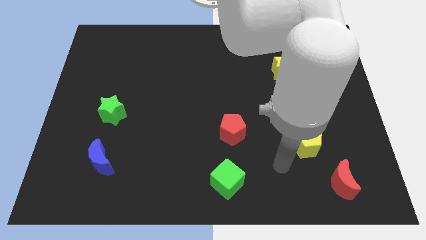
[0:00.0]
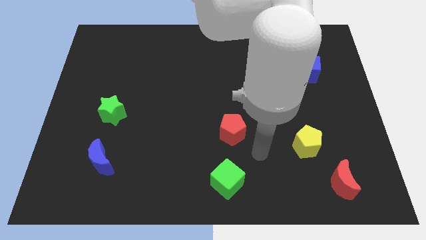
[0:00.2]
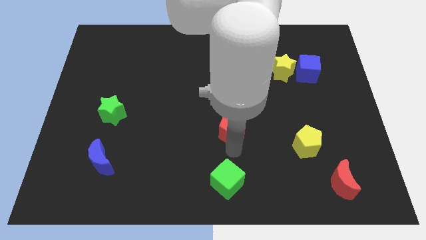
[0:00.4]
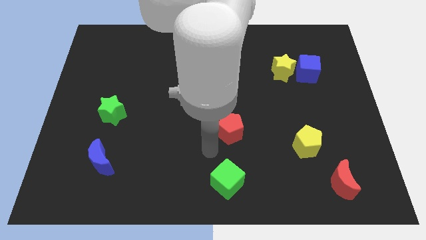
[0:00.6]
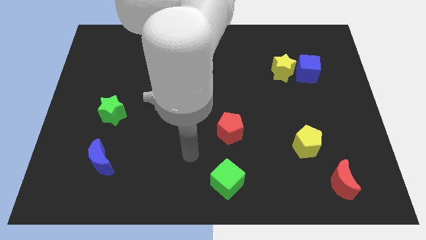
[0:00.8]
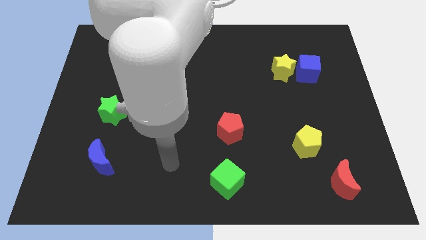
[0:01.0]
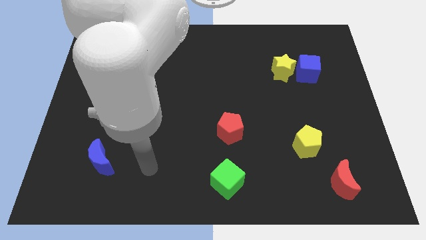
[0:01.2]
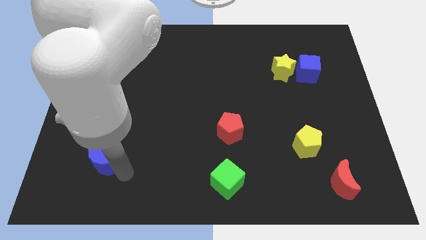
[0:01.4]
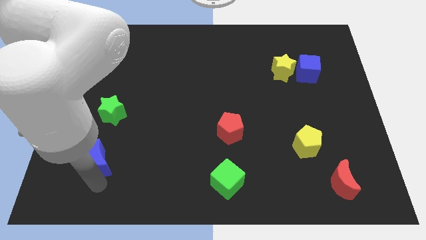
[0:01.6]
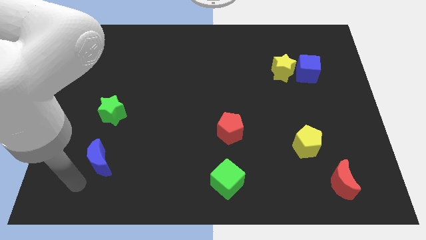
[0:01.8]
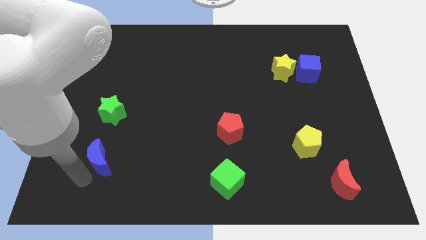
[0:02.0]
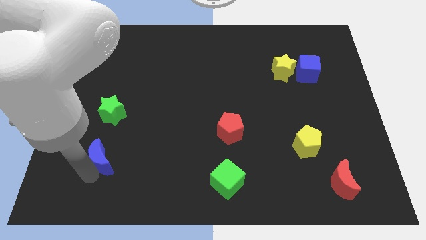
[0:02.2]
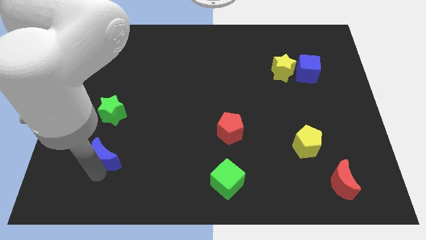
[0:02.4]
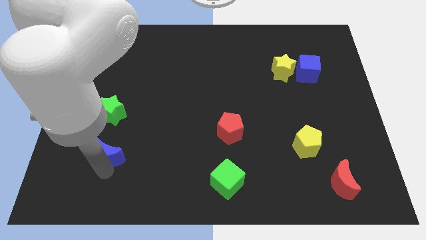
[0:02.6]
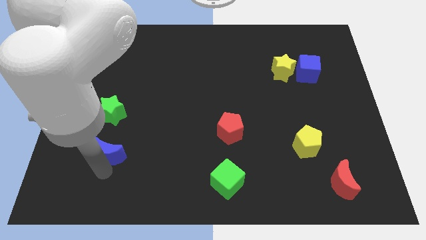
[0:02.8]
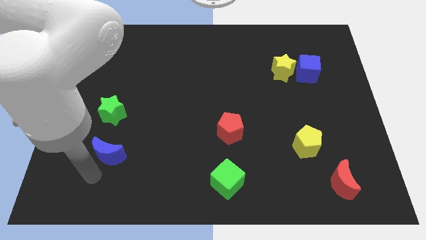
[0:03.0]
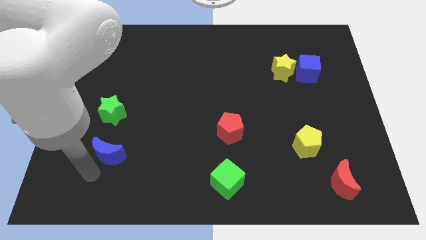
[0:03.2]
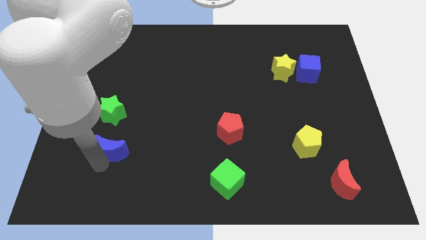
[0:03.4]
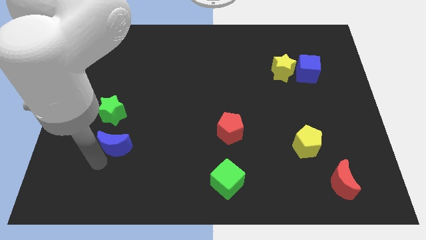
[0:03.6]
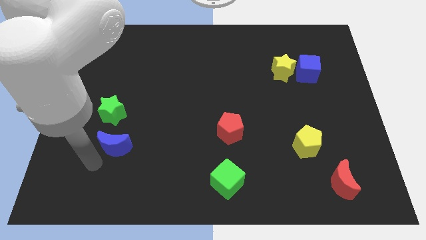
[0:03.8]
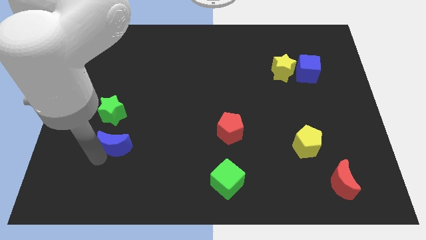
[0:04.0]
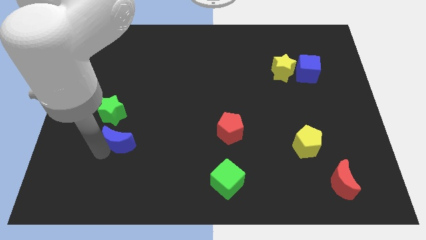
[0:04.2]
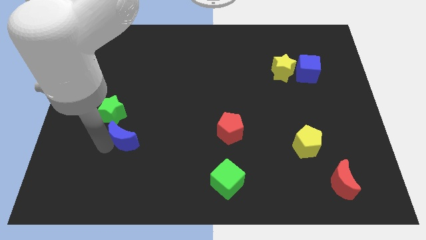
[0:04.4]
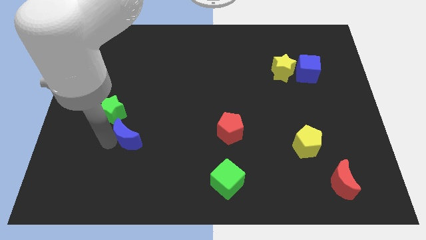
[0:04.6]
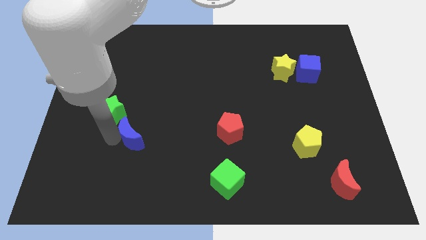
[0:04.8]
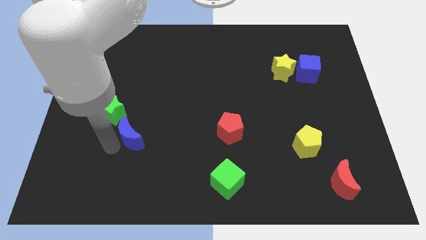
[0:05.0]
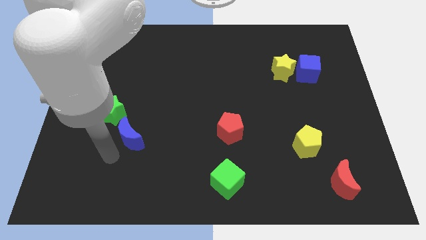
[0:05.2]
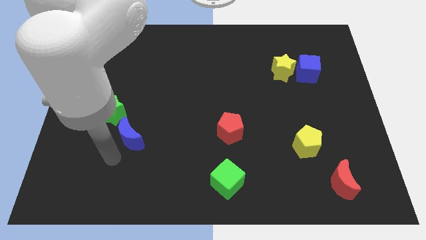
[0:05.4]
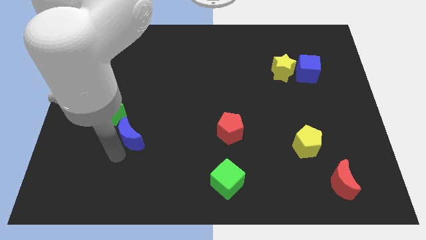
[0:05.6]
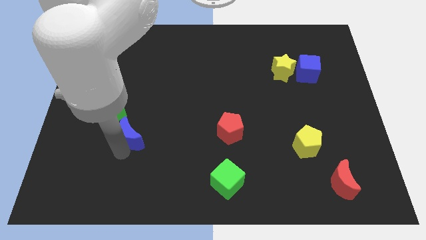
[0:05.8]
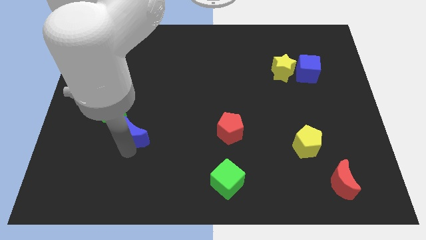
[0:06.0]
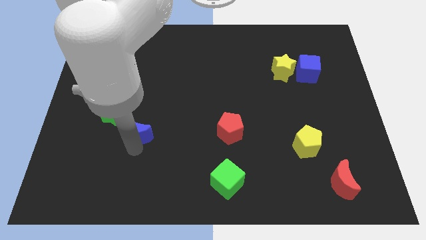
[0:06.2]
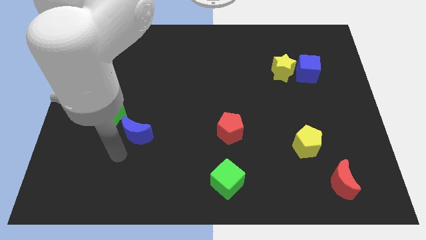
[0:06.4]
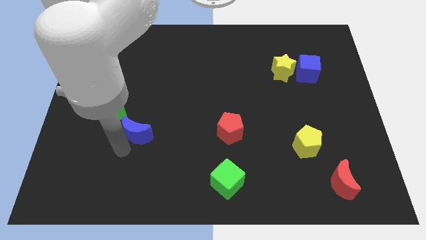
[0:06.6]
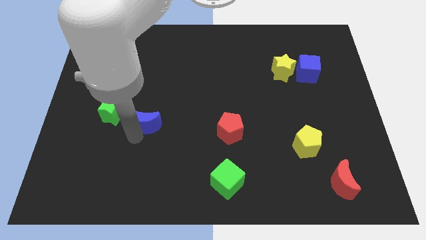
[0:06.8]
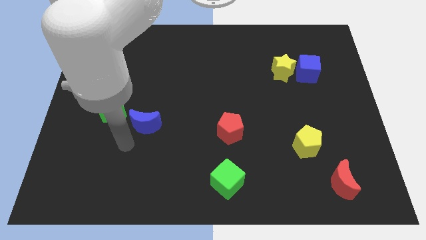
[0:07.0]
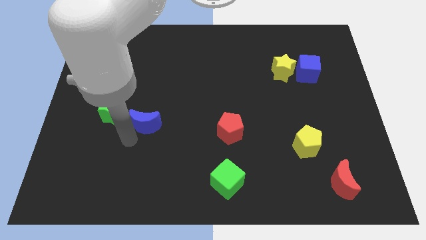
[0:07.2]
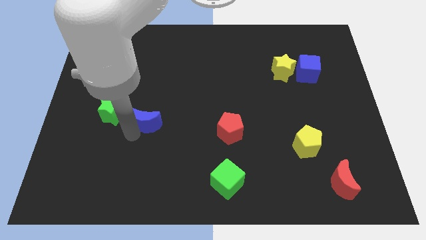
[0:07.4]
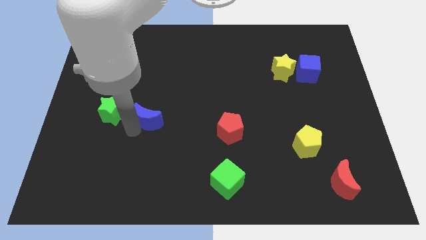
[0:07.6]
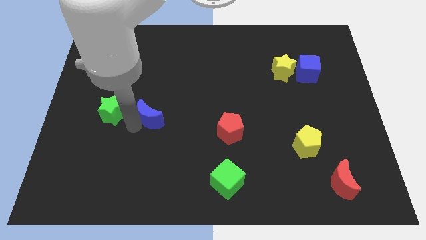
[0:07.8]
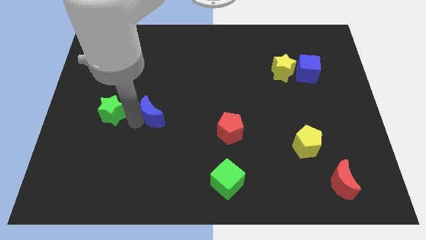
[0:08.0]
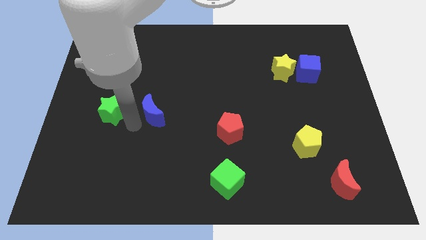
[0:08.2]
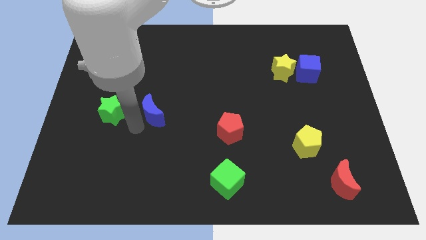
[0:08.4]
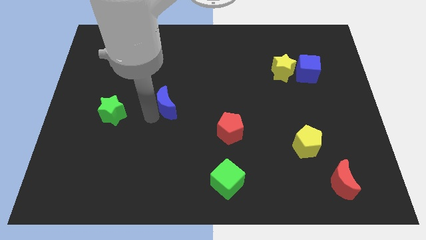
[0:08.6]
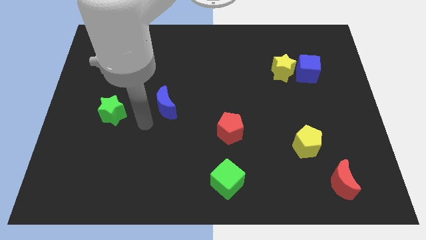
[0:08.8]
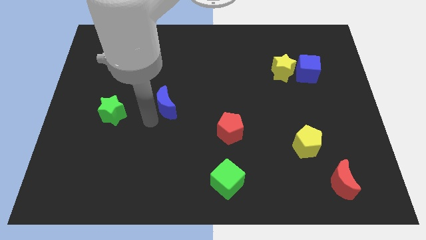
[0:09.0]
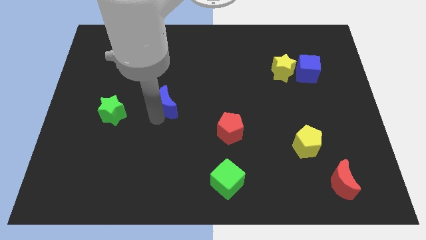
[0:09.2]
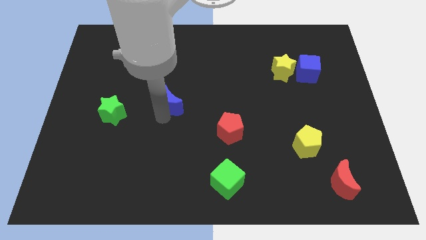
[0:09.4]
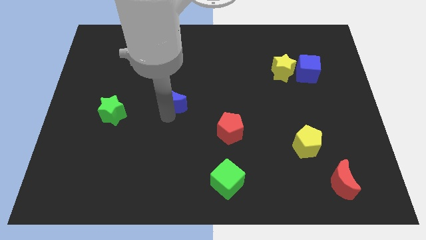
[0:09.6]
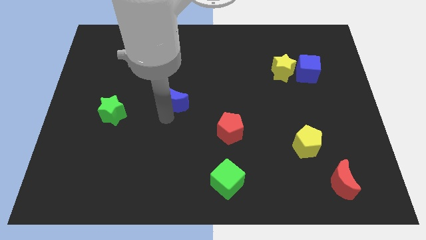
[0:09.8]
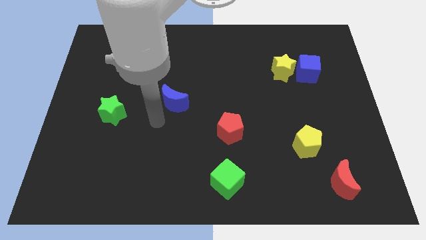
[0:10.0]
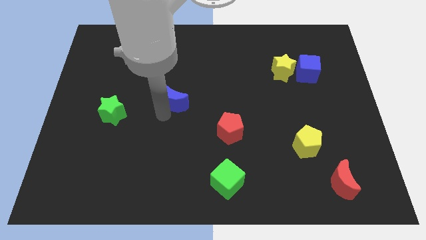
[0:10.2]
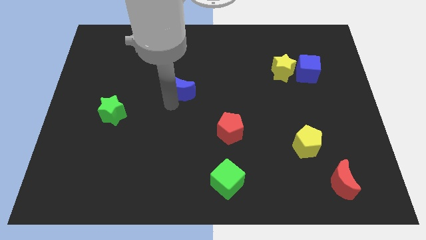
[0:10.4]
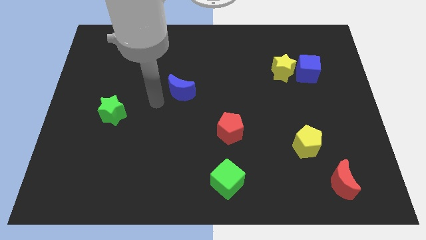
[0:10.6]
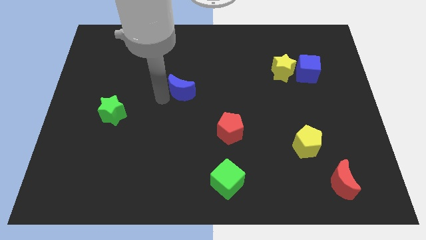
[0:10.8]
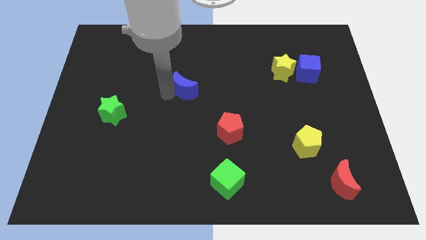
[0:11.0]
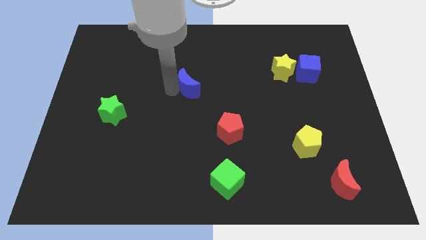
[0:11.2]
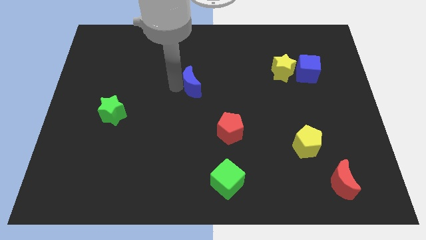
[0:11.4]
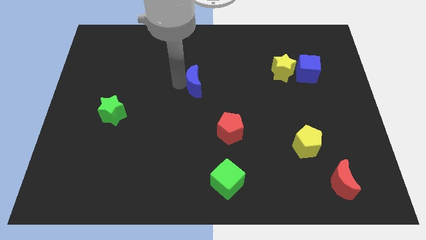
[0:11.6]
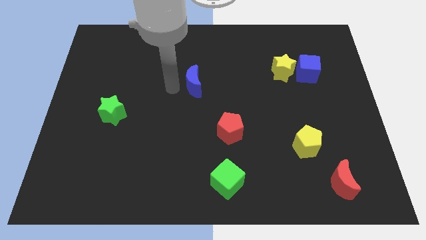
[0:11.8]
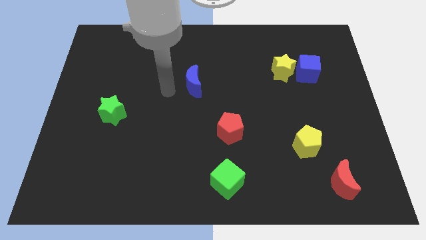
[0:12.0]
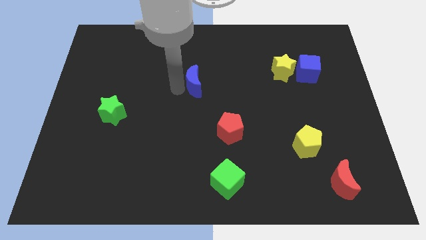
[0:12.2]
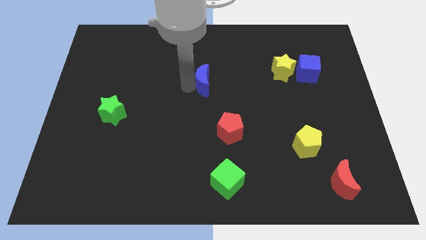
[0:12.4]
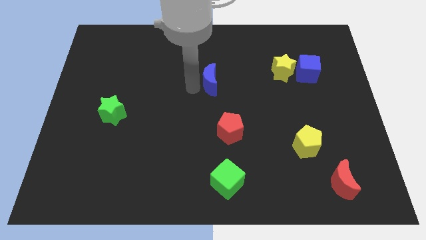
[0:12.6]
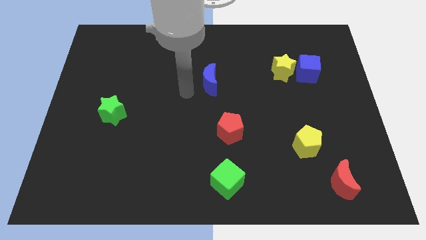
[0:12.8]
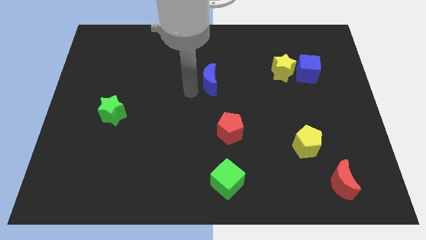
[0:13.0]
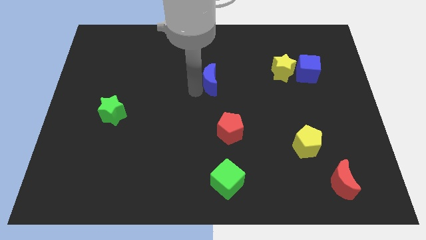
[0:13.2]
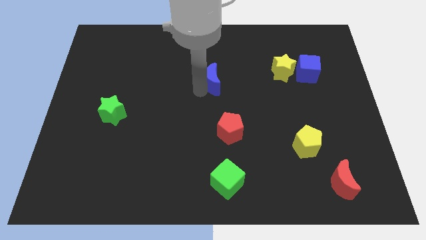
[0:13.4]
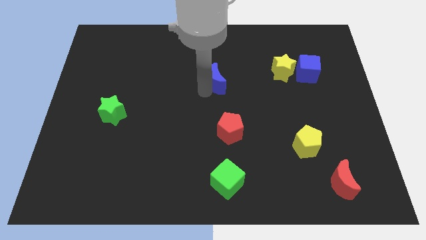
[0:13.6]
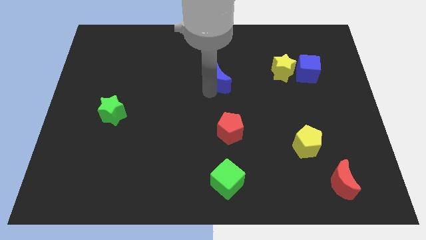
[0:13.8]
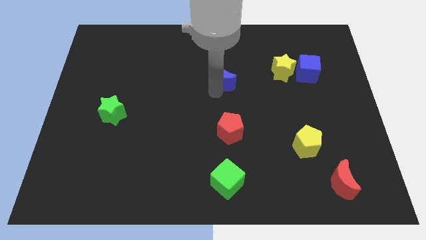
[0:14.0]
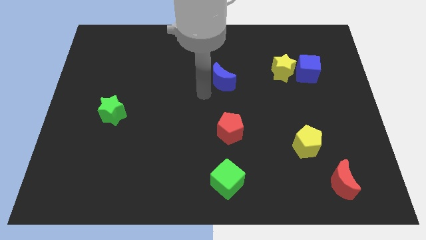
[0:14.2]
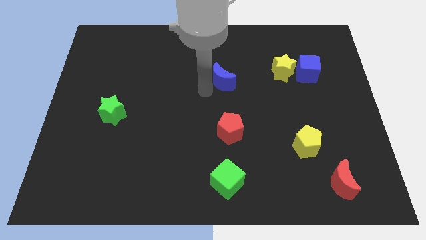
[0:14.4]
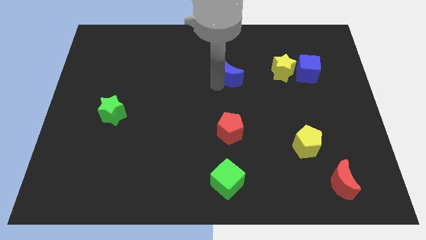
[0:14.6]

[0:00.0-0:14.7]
put the blue moon left of the yellow star
